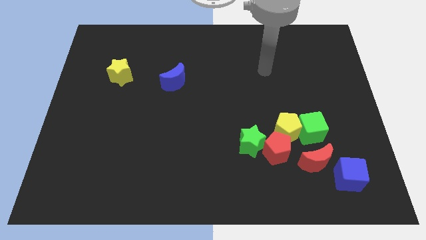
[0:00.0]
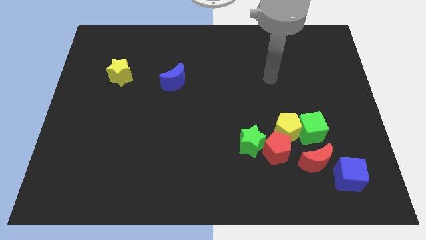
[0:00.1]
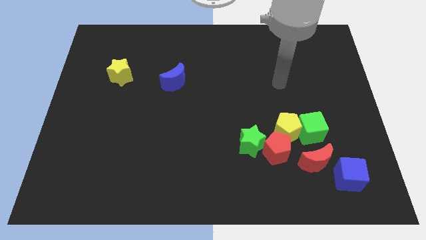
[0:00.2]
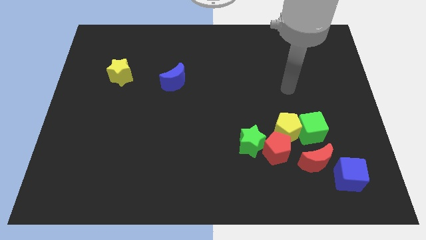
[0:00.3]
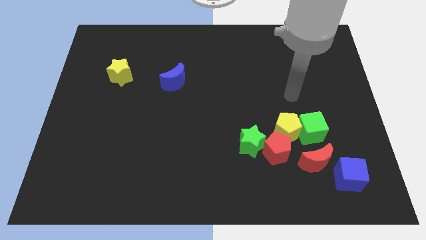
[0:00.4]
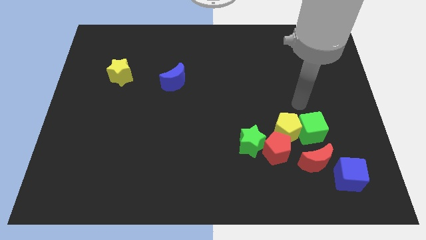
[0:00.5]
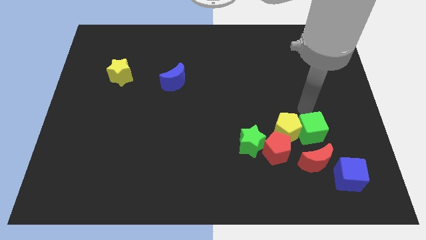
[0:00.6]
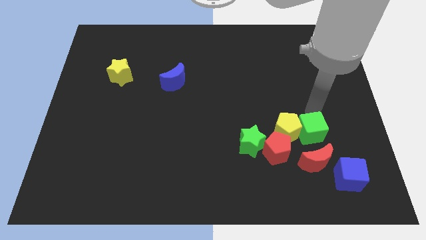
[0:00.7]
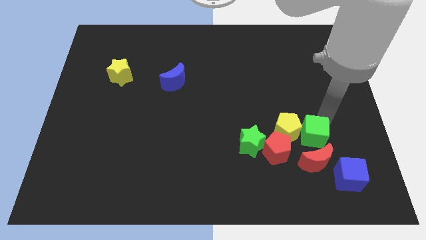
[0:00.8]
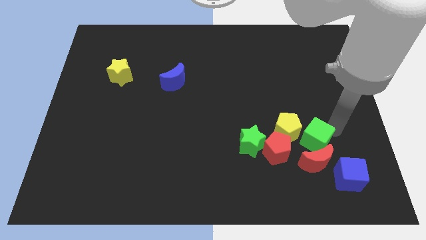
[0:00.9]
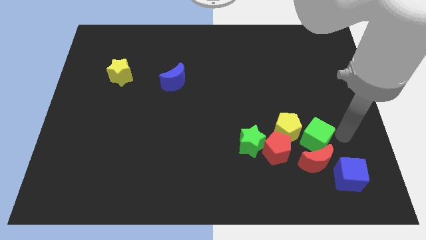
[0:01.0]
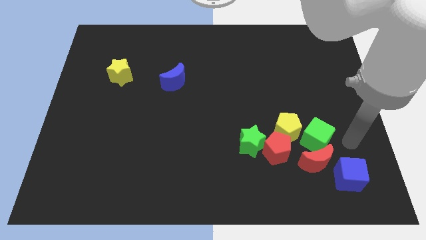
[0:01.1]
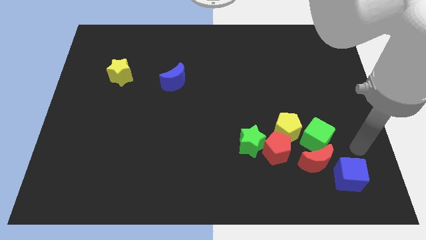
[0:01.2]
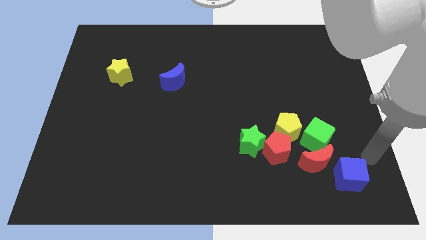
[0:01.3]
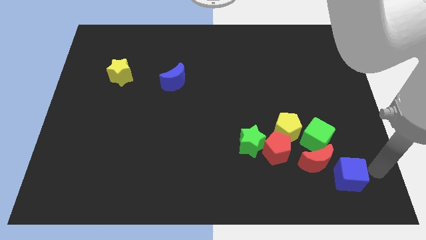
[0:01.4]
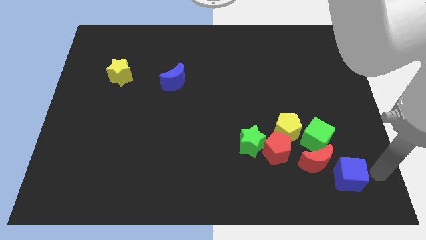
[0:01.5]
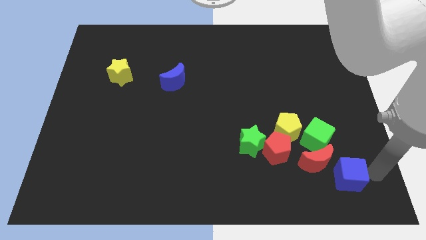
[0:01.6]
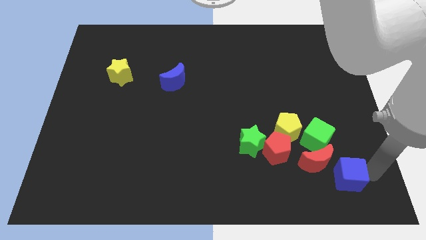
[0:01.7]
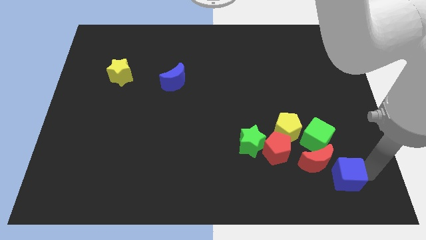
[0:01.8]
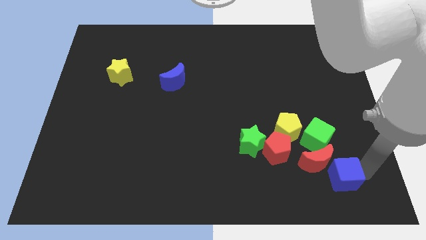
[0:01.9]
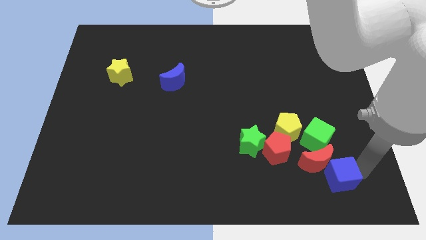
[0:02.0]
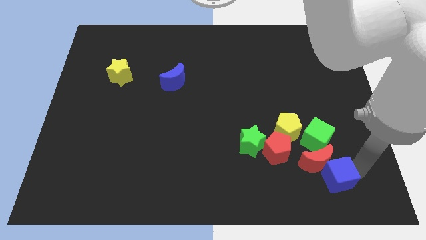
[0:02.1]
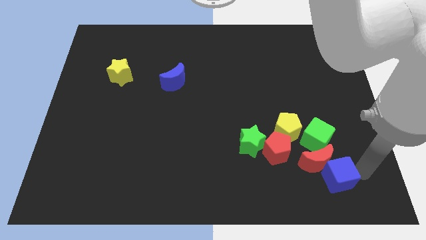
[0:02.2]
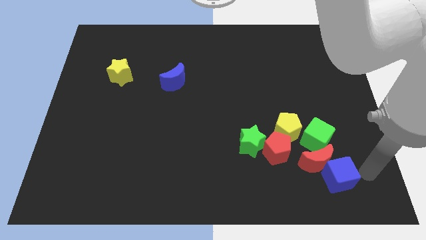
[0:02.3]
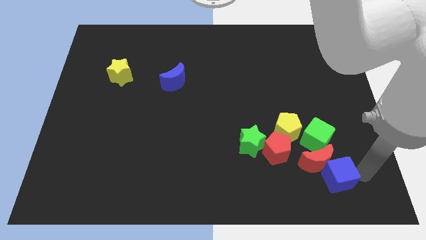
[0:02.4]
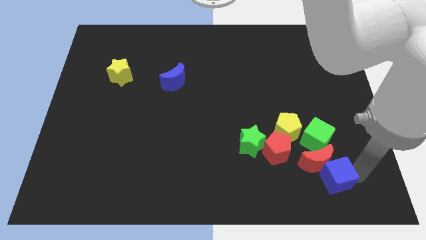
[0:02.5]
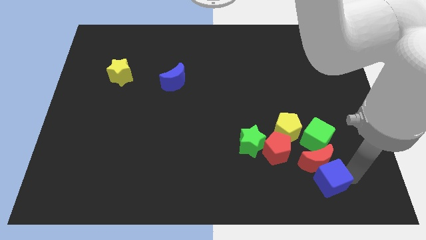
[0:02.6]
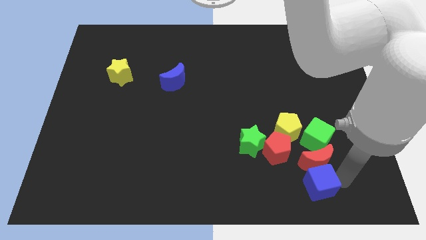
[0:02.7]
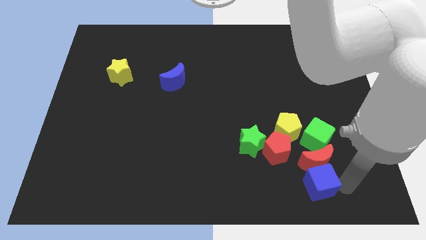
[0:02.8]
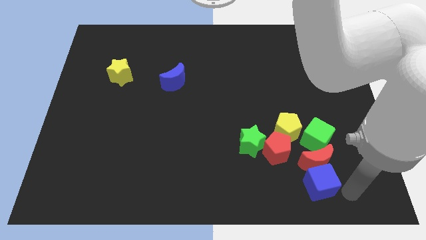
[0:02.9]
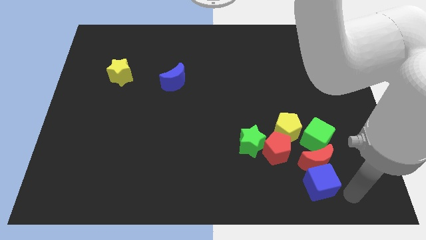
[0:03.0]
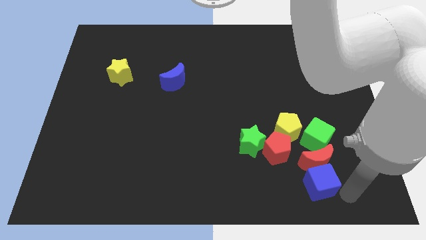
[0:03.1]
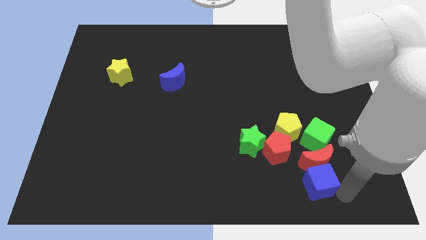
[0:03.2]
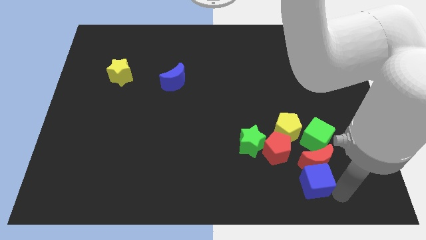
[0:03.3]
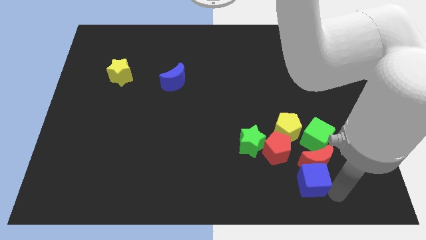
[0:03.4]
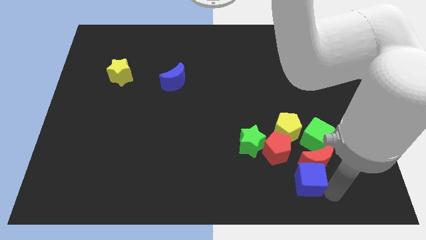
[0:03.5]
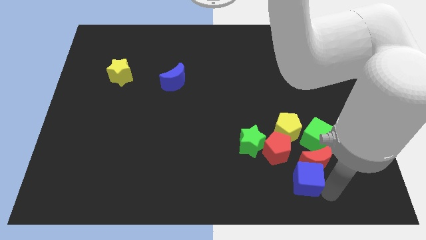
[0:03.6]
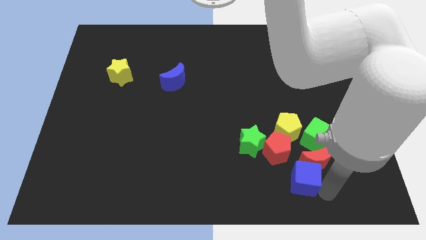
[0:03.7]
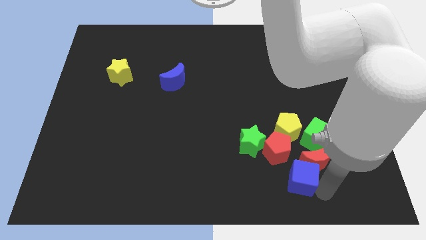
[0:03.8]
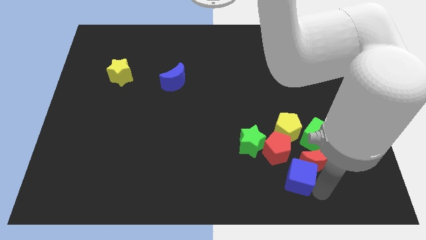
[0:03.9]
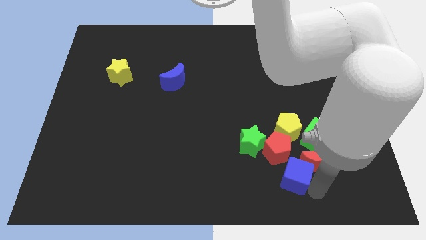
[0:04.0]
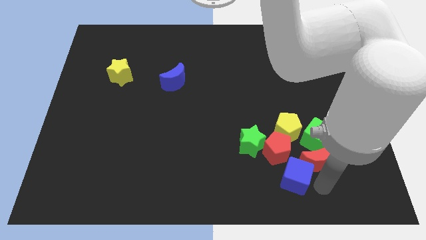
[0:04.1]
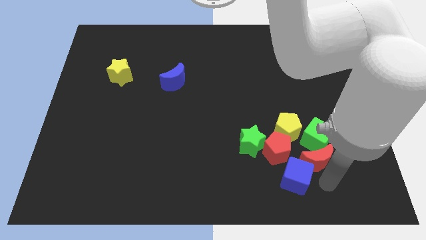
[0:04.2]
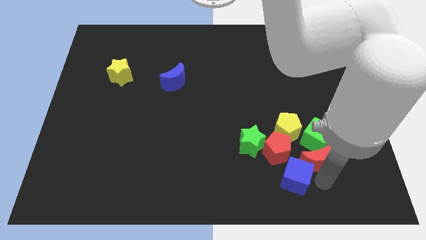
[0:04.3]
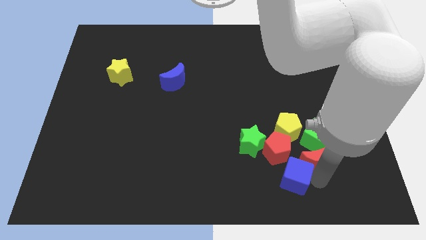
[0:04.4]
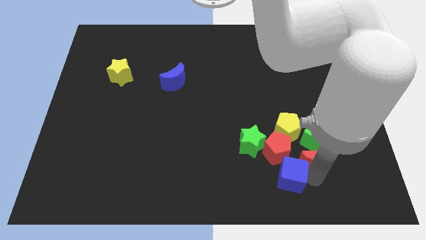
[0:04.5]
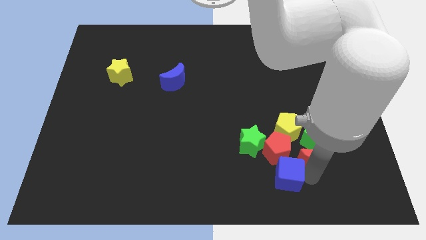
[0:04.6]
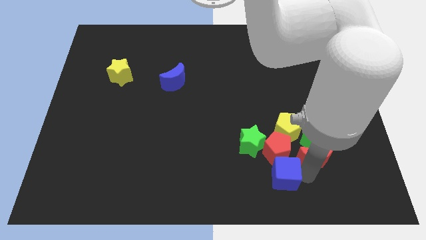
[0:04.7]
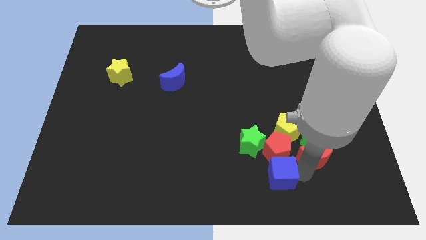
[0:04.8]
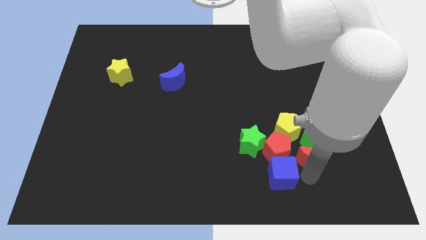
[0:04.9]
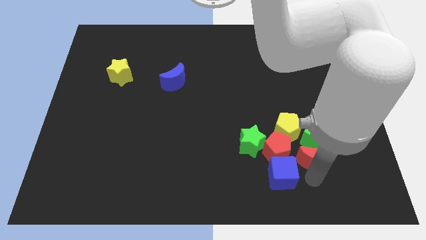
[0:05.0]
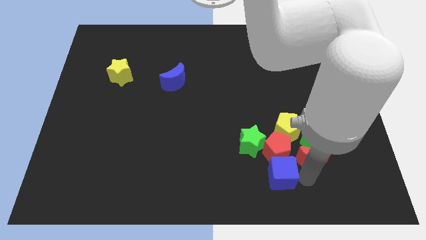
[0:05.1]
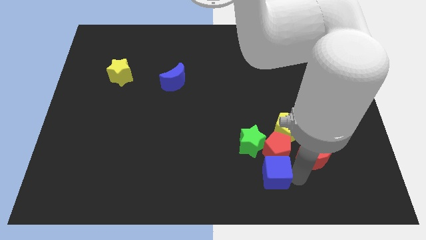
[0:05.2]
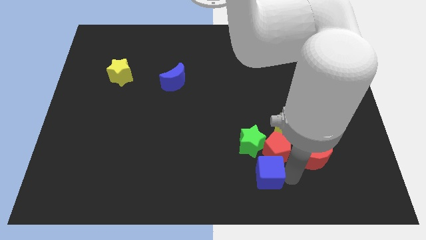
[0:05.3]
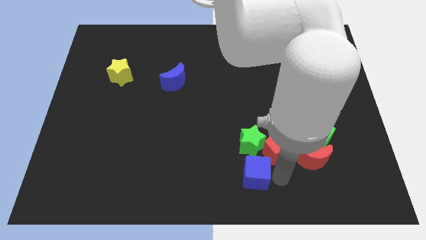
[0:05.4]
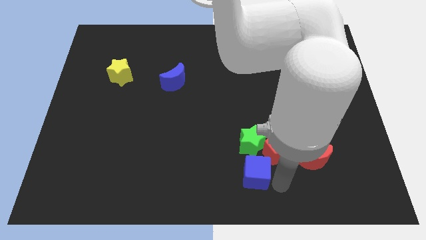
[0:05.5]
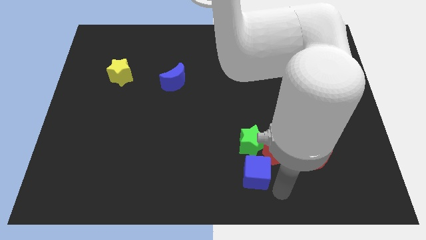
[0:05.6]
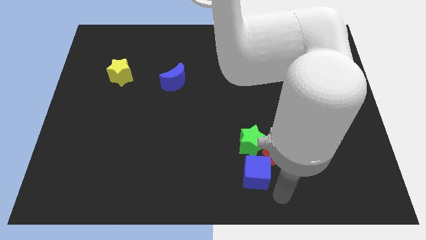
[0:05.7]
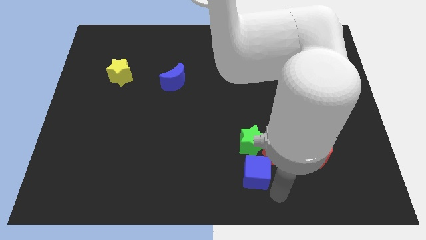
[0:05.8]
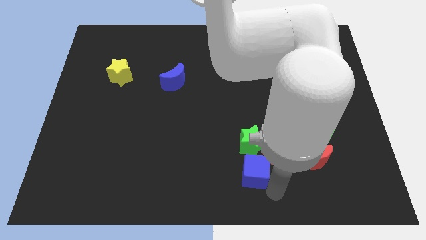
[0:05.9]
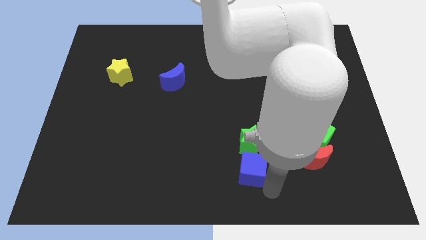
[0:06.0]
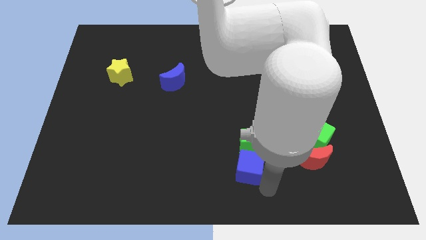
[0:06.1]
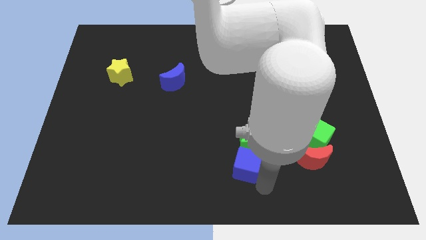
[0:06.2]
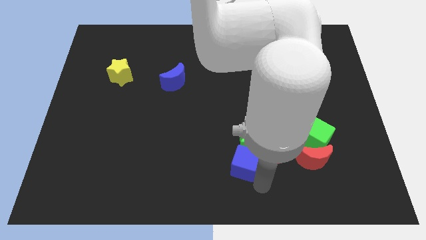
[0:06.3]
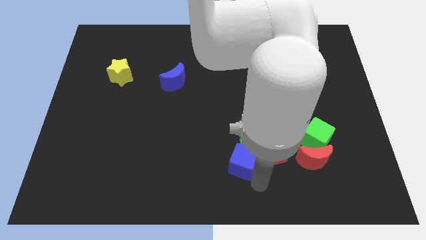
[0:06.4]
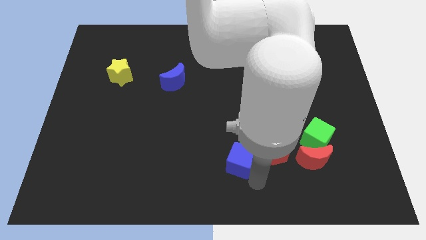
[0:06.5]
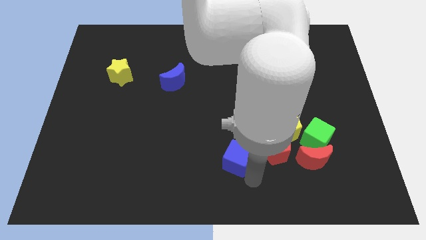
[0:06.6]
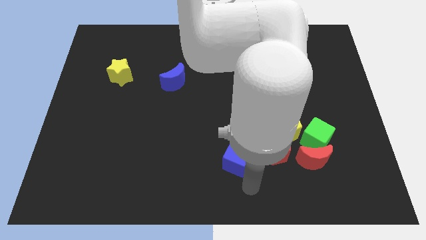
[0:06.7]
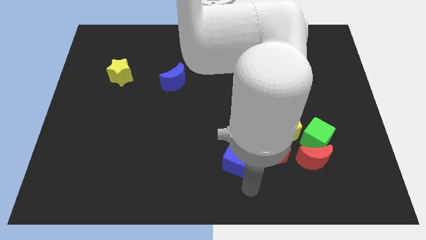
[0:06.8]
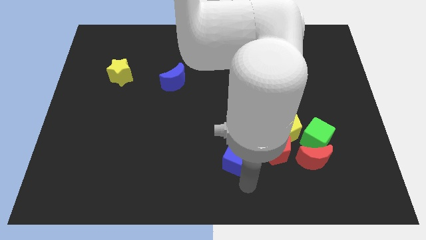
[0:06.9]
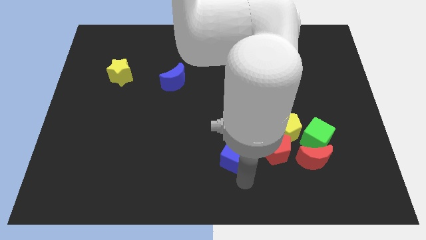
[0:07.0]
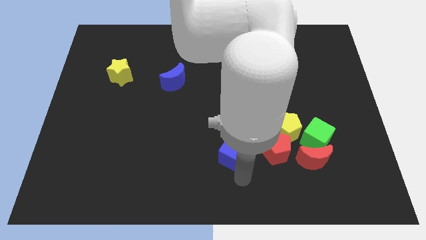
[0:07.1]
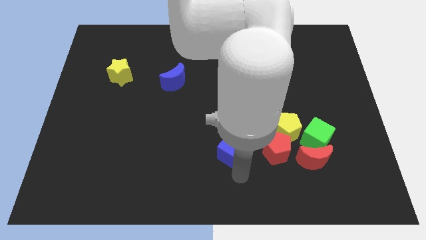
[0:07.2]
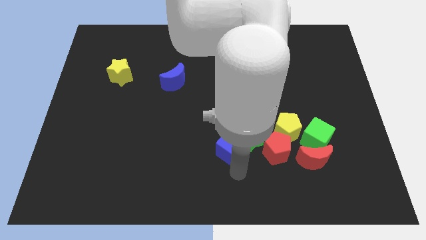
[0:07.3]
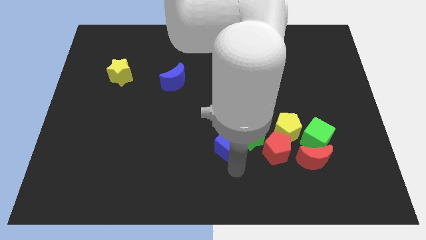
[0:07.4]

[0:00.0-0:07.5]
move the blue cube left of the yellow pentagon
